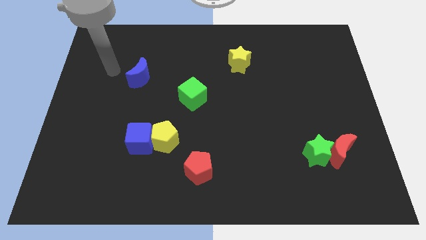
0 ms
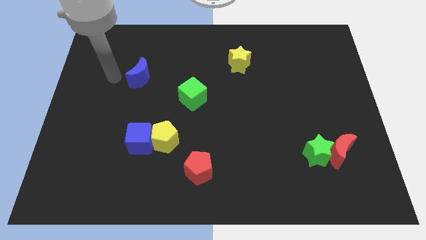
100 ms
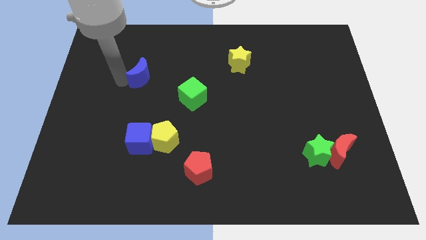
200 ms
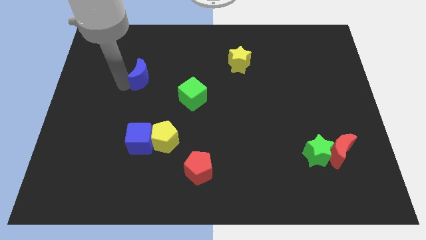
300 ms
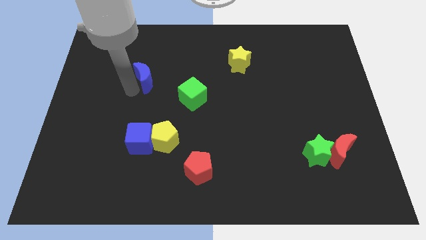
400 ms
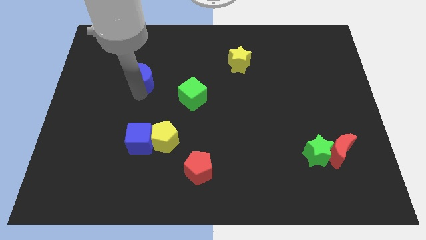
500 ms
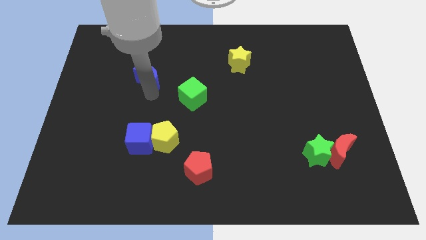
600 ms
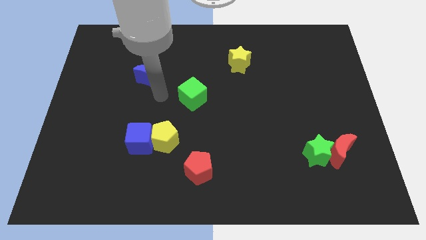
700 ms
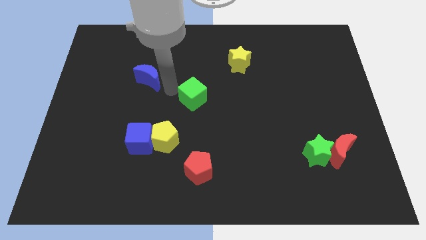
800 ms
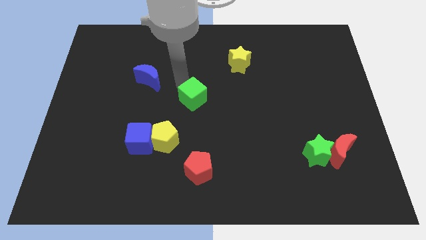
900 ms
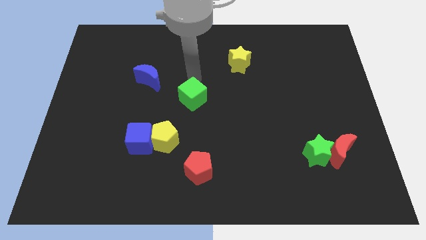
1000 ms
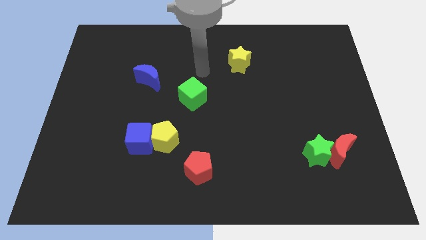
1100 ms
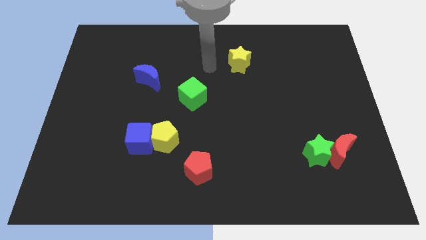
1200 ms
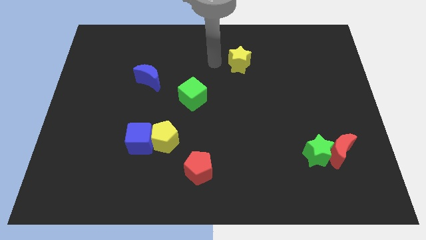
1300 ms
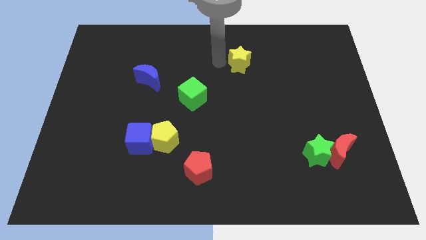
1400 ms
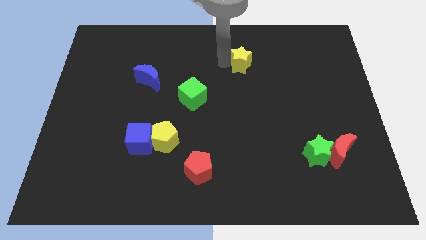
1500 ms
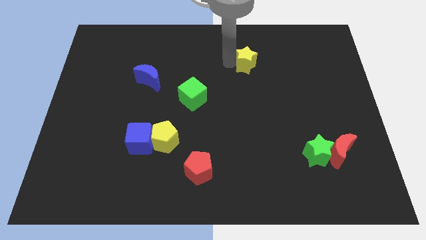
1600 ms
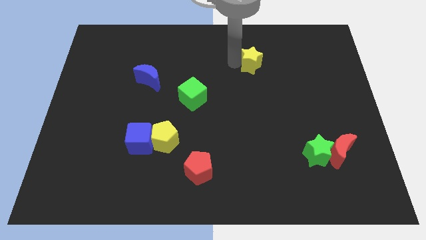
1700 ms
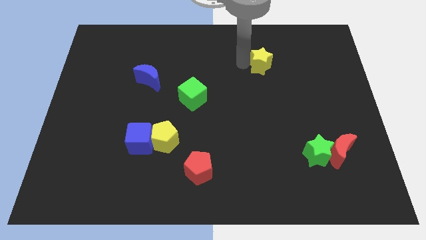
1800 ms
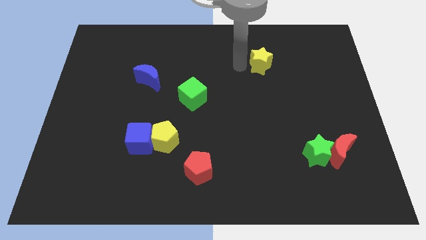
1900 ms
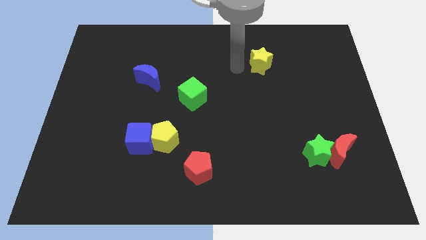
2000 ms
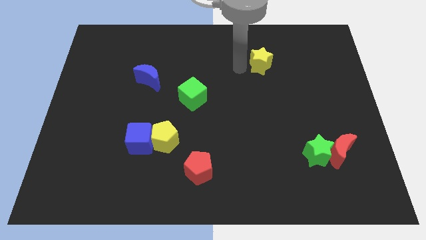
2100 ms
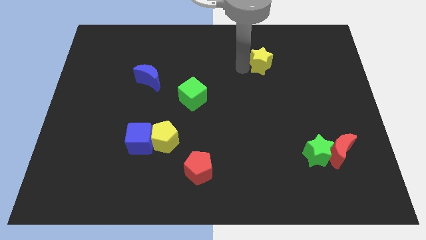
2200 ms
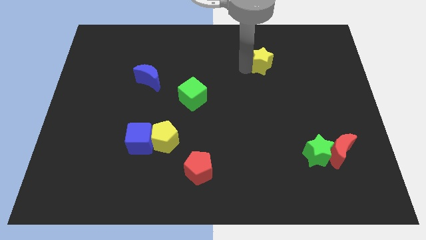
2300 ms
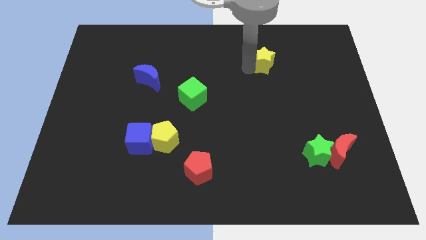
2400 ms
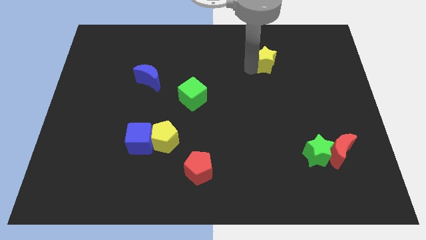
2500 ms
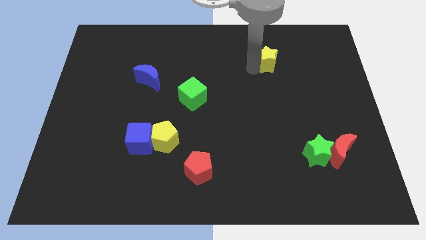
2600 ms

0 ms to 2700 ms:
move the yellow star to the right a little bit

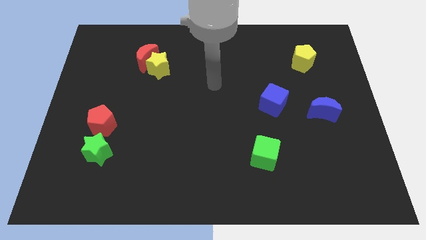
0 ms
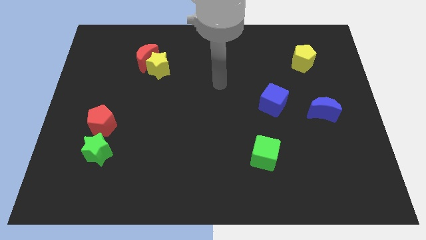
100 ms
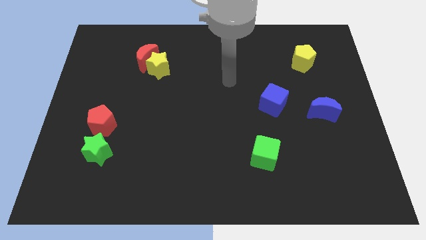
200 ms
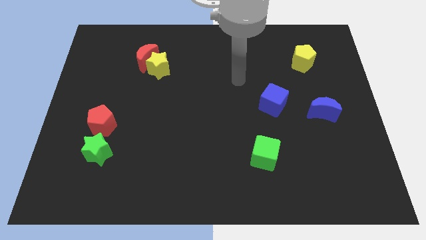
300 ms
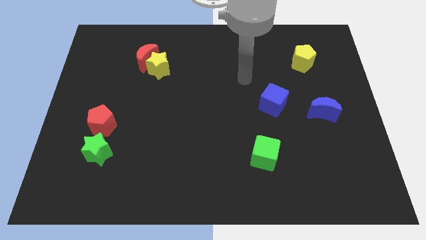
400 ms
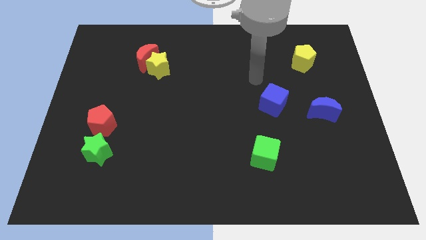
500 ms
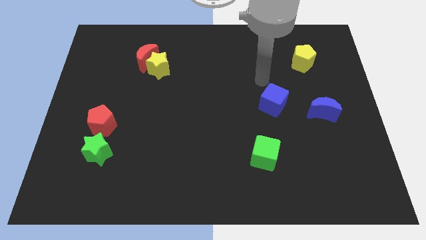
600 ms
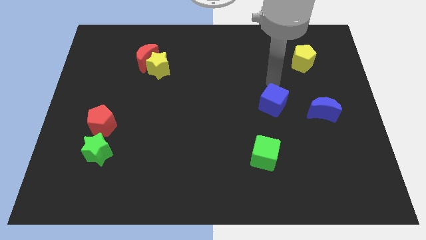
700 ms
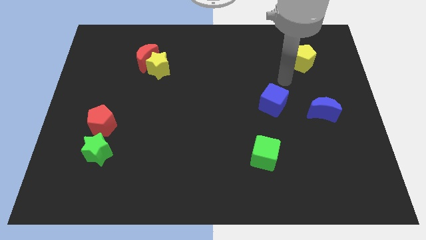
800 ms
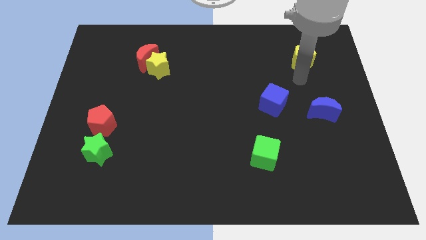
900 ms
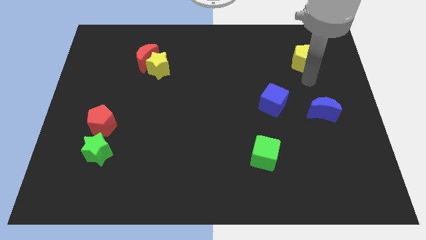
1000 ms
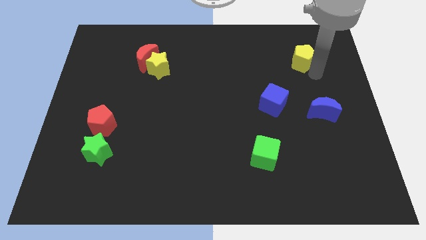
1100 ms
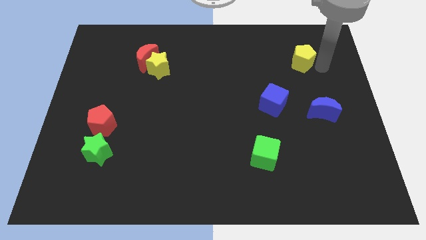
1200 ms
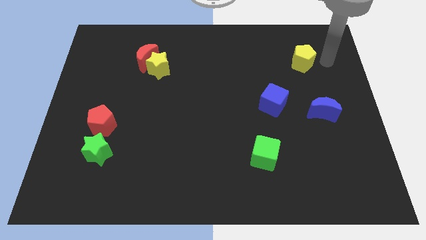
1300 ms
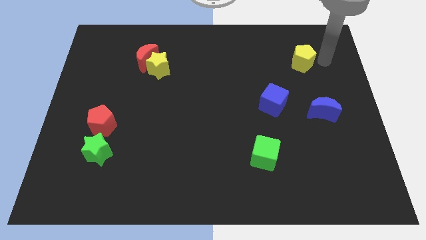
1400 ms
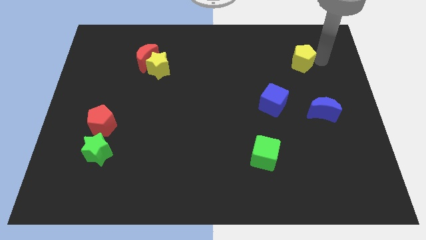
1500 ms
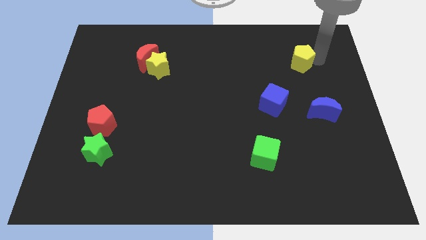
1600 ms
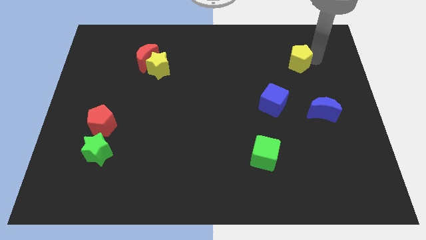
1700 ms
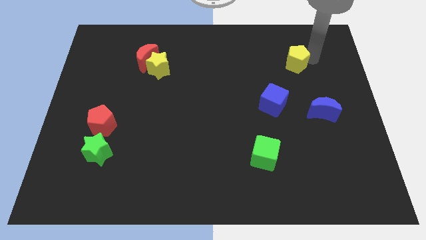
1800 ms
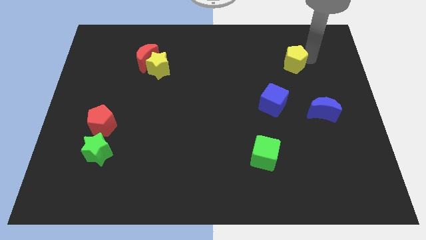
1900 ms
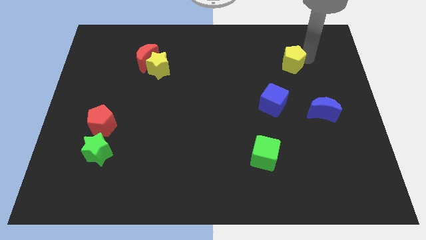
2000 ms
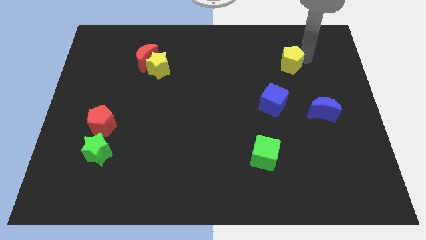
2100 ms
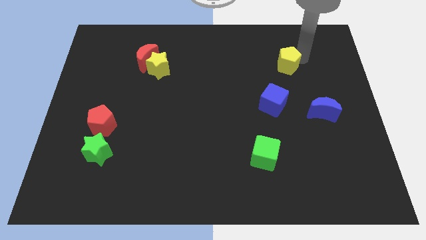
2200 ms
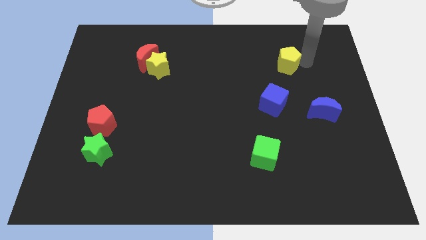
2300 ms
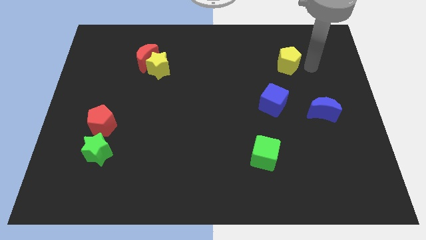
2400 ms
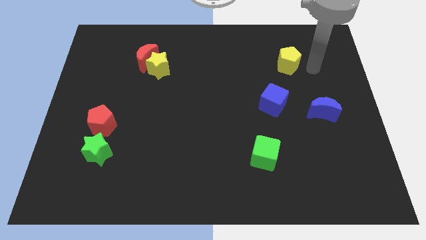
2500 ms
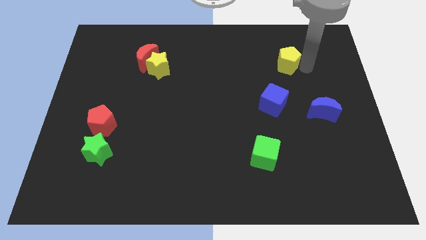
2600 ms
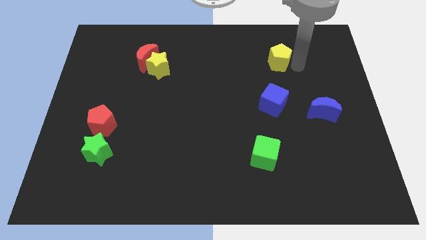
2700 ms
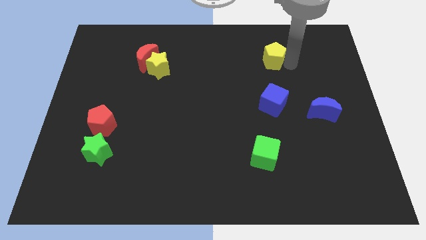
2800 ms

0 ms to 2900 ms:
slide the yellow pentagon a little left

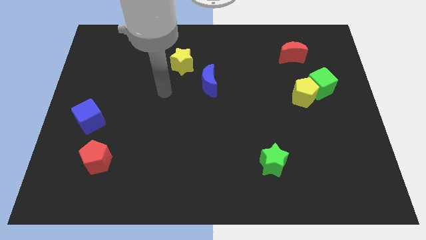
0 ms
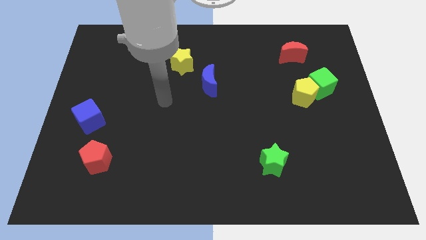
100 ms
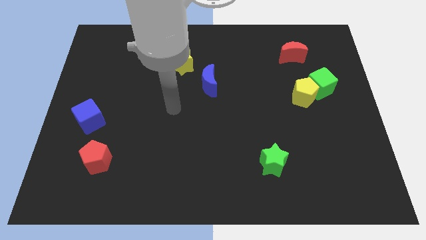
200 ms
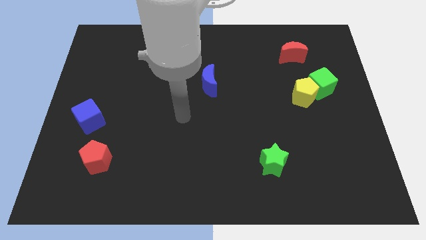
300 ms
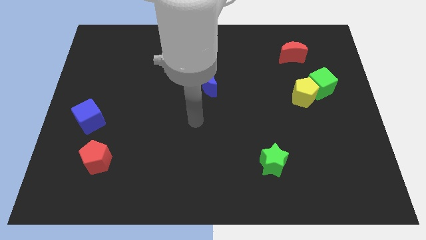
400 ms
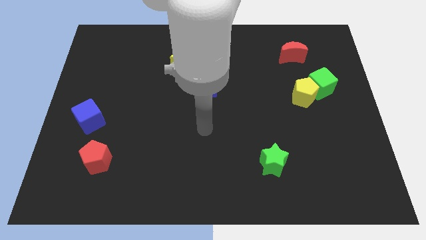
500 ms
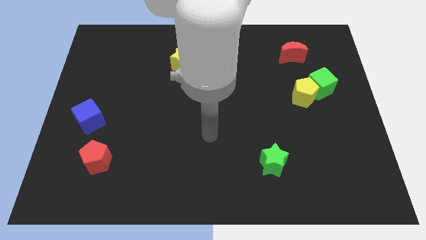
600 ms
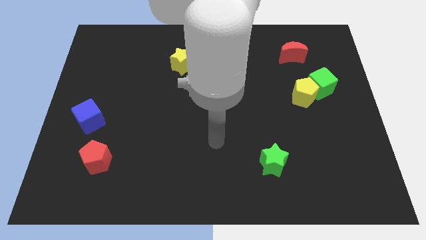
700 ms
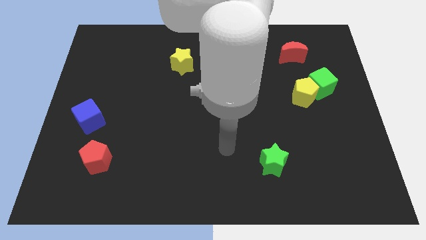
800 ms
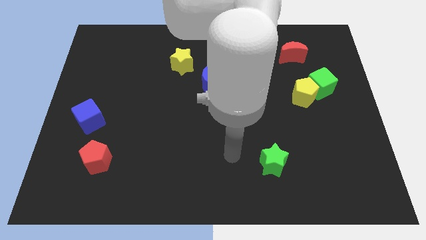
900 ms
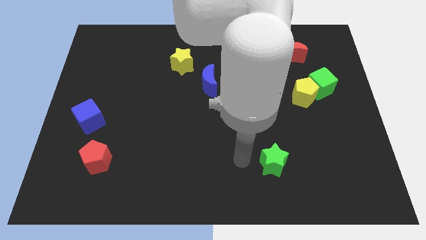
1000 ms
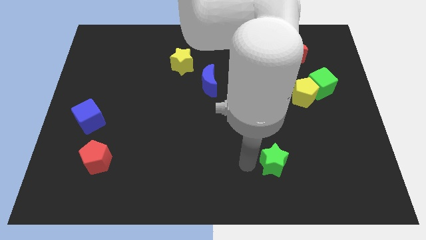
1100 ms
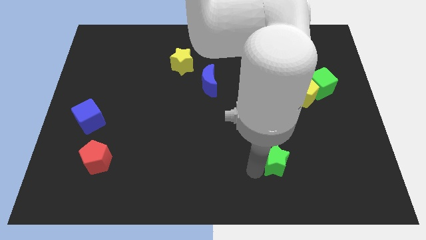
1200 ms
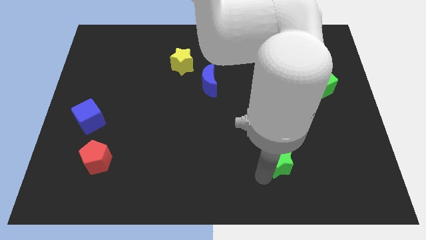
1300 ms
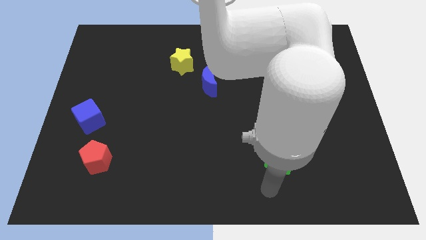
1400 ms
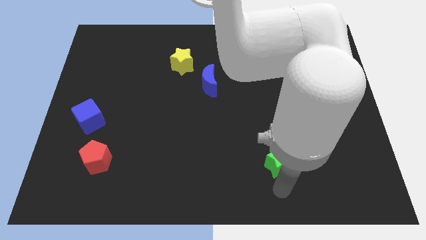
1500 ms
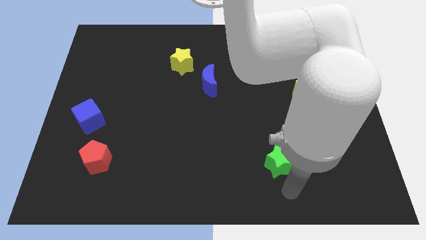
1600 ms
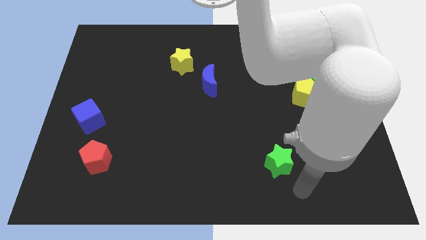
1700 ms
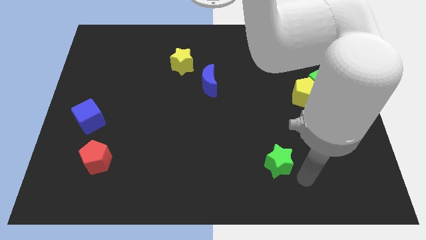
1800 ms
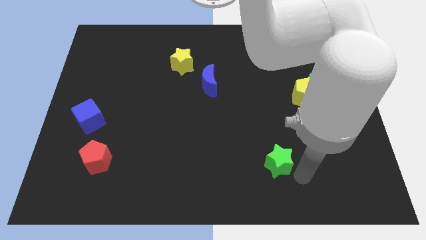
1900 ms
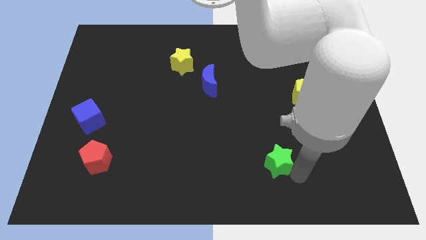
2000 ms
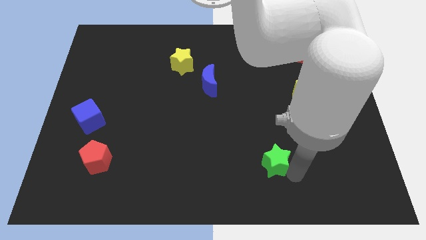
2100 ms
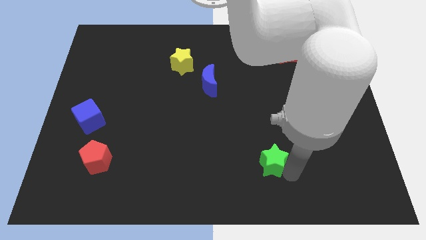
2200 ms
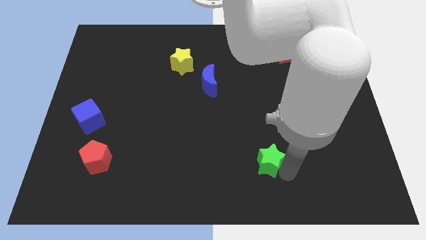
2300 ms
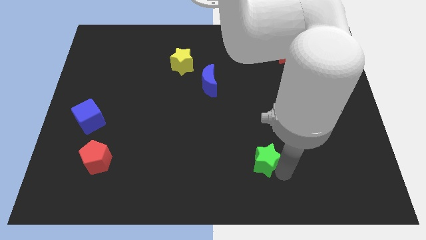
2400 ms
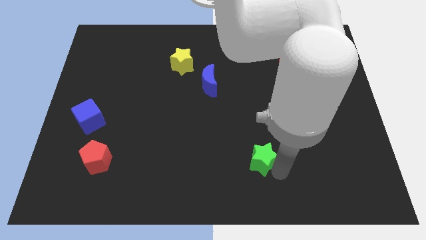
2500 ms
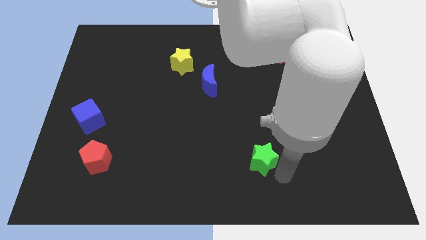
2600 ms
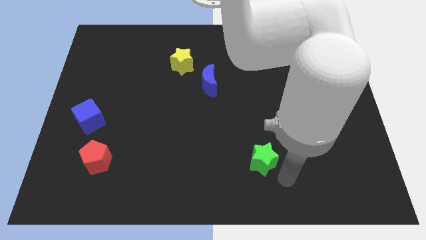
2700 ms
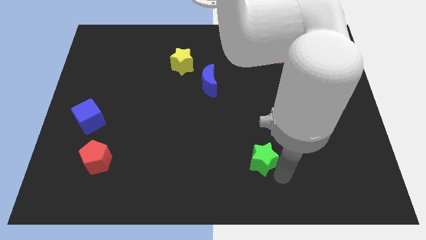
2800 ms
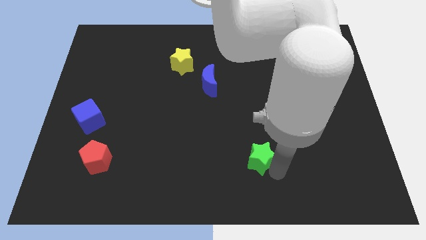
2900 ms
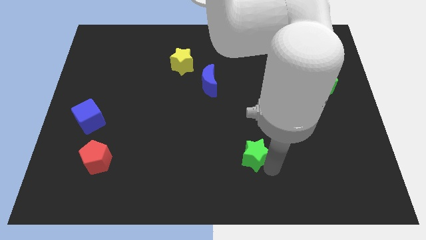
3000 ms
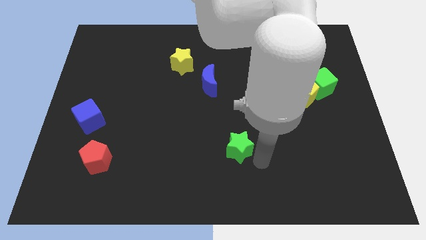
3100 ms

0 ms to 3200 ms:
slightly slide the green star upwards and to the left diagonally
